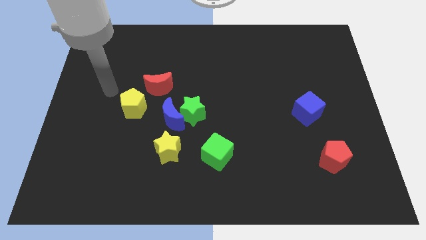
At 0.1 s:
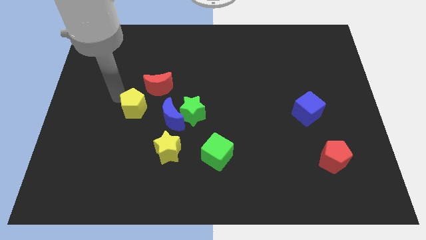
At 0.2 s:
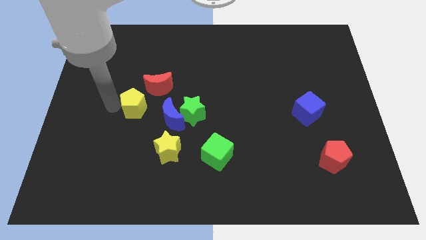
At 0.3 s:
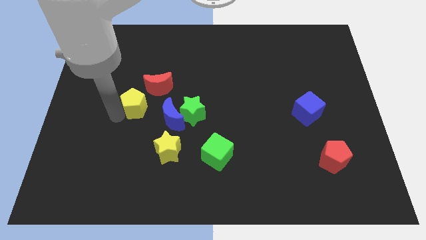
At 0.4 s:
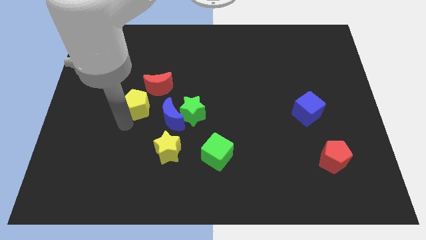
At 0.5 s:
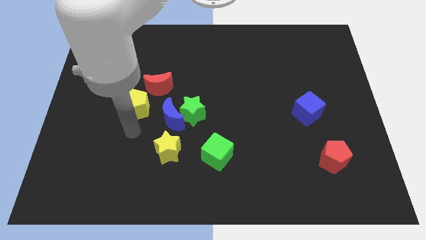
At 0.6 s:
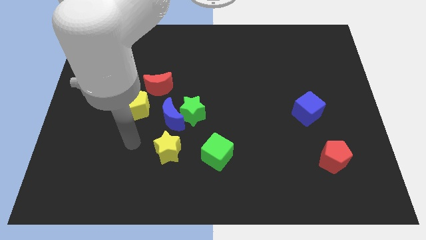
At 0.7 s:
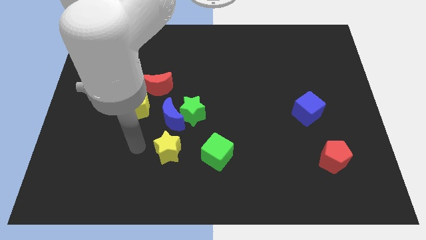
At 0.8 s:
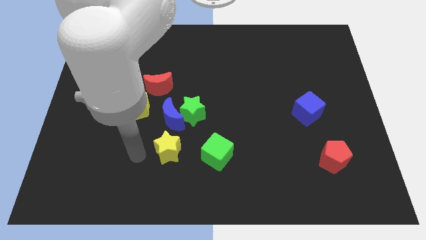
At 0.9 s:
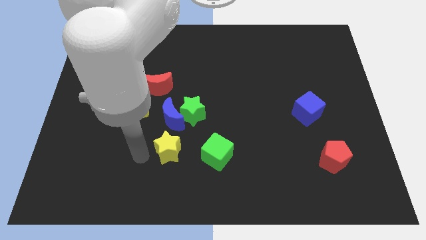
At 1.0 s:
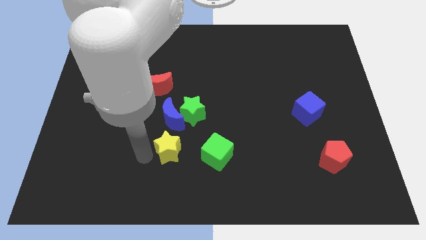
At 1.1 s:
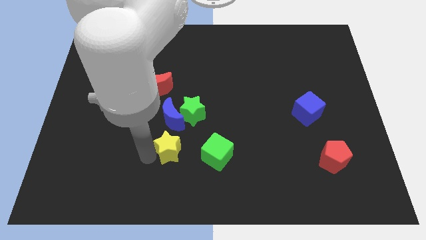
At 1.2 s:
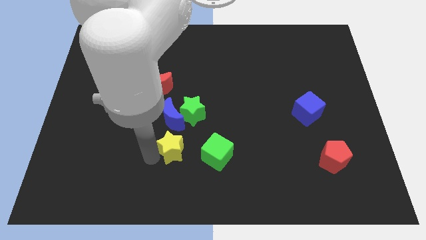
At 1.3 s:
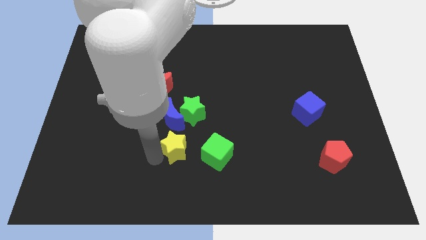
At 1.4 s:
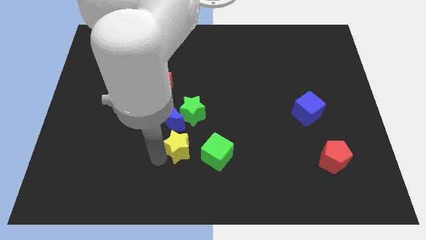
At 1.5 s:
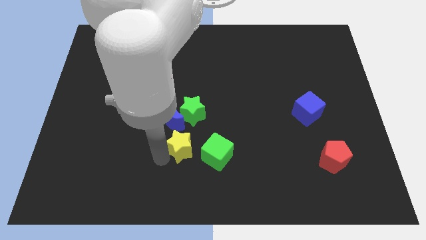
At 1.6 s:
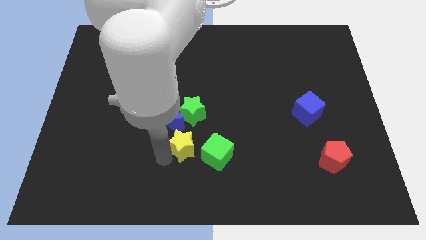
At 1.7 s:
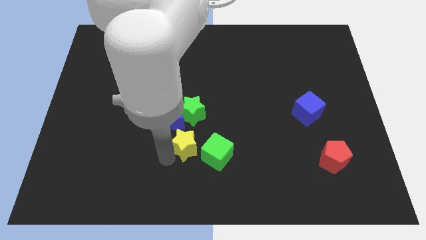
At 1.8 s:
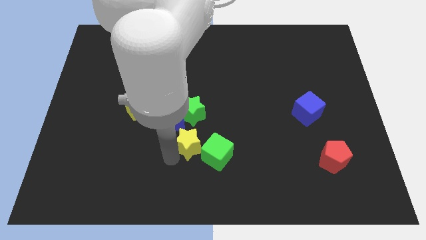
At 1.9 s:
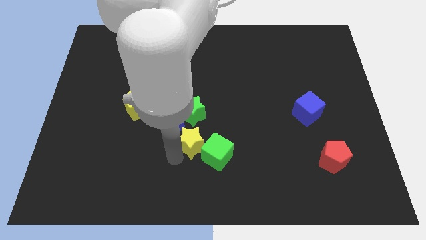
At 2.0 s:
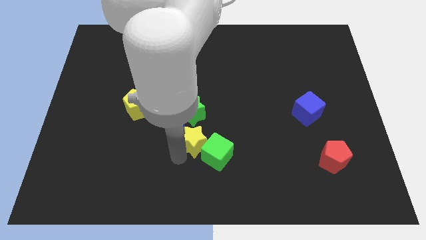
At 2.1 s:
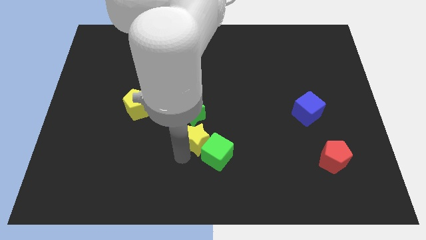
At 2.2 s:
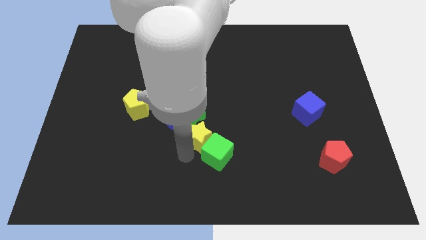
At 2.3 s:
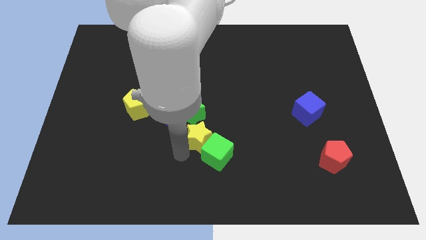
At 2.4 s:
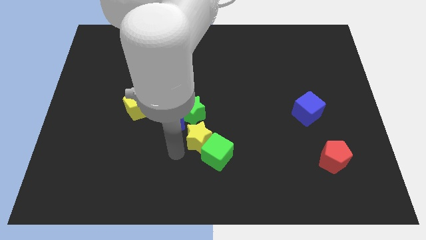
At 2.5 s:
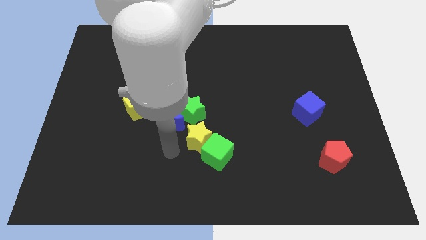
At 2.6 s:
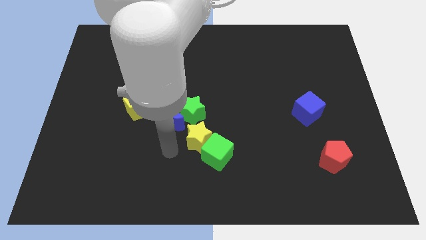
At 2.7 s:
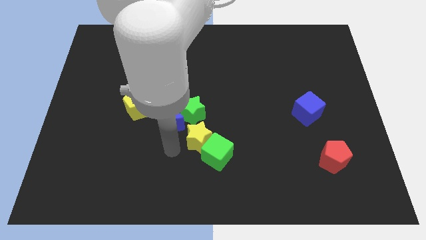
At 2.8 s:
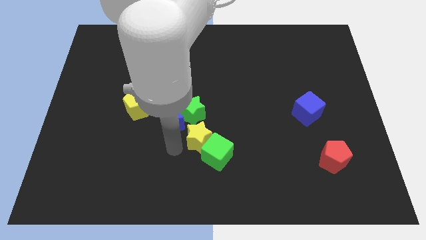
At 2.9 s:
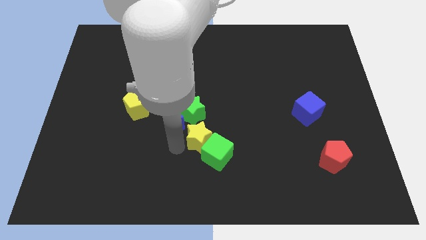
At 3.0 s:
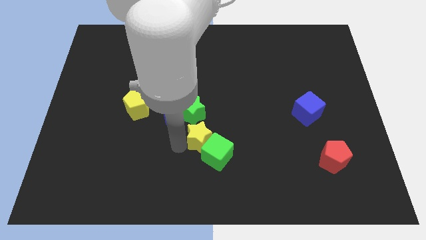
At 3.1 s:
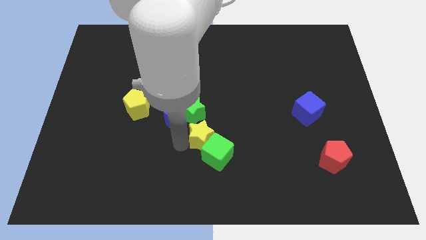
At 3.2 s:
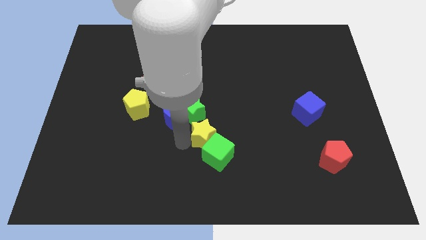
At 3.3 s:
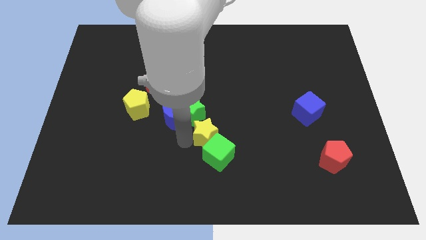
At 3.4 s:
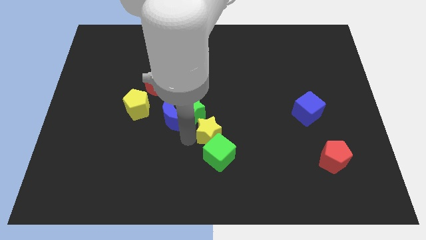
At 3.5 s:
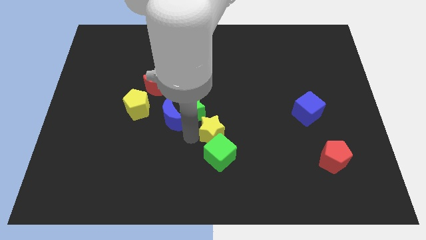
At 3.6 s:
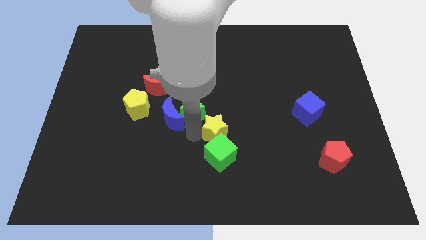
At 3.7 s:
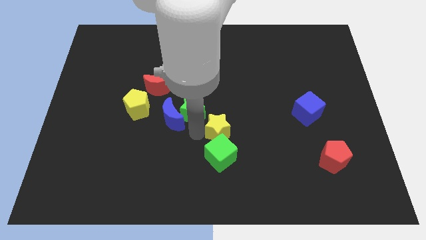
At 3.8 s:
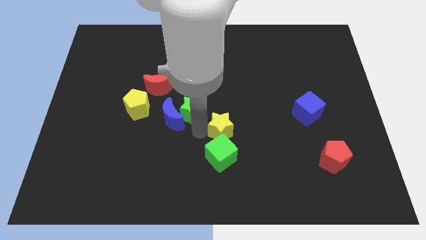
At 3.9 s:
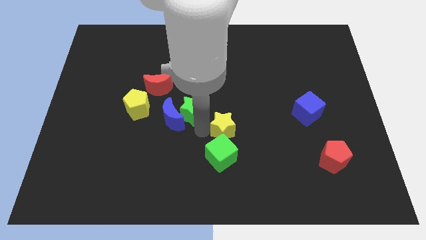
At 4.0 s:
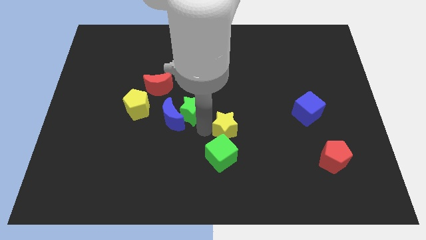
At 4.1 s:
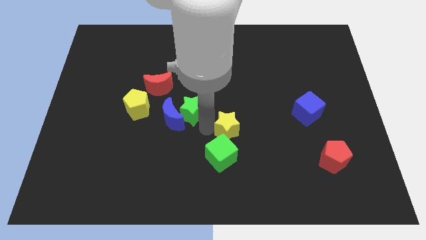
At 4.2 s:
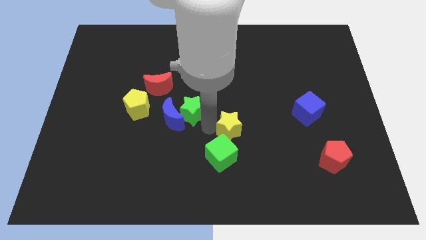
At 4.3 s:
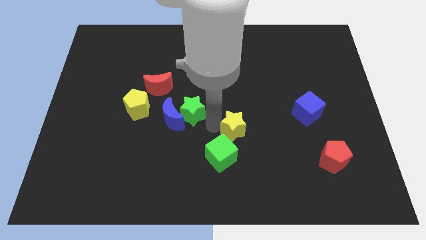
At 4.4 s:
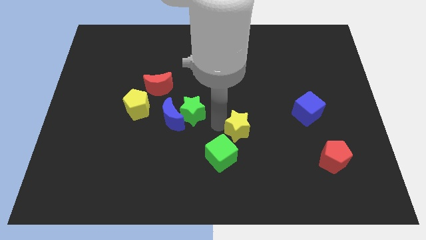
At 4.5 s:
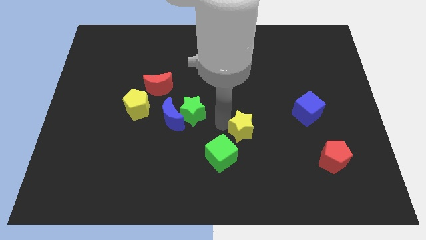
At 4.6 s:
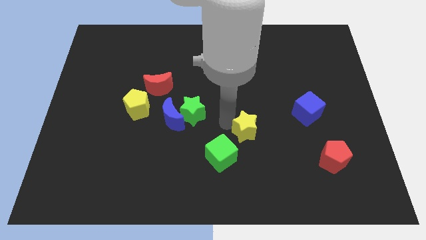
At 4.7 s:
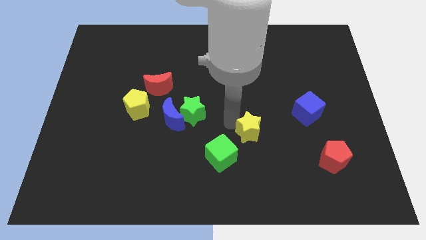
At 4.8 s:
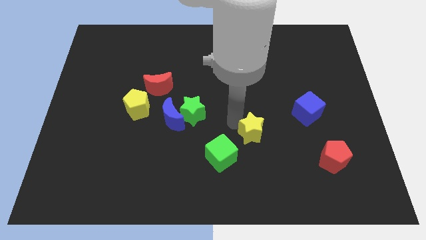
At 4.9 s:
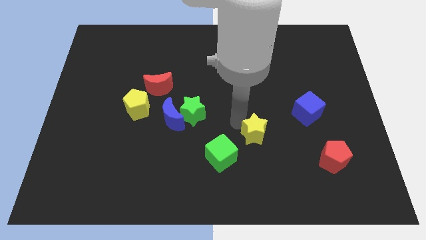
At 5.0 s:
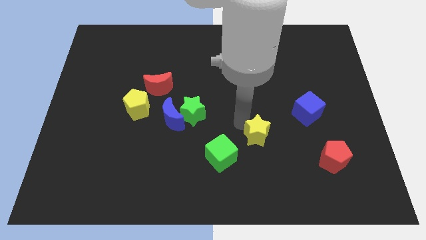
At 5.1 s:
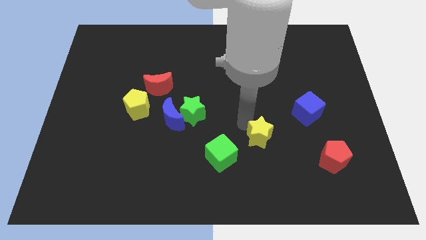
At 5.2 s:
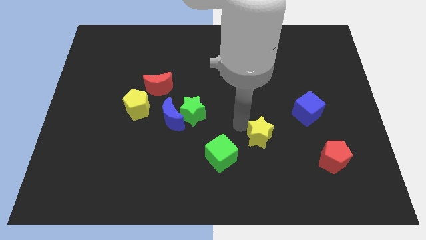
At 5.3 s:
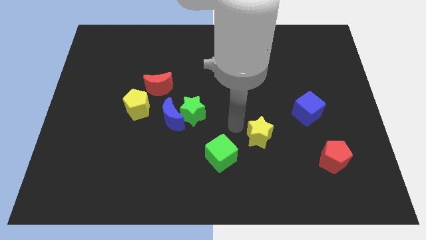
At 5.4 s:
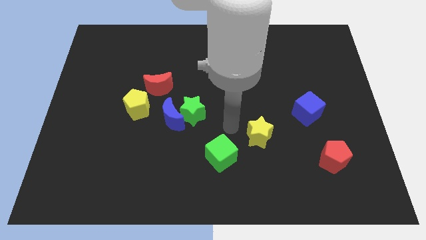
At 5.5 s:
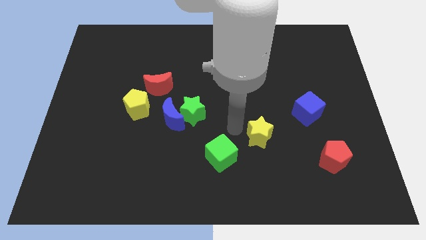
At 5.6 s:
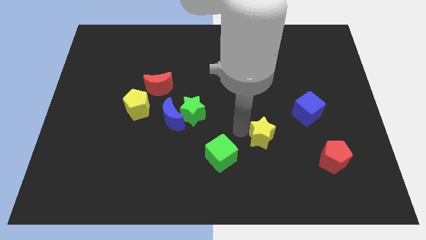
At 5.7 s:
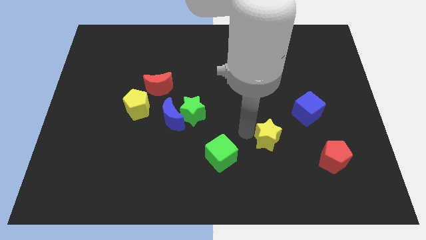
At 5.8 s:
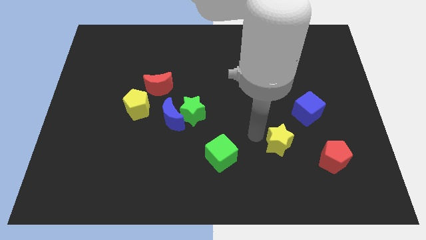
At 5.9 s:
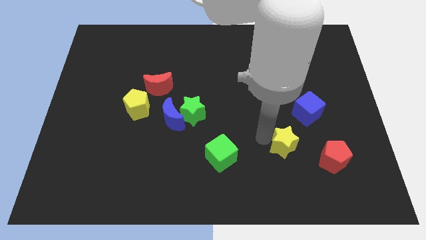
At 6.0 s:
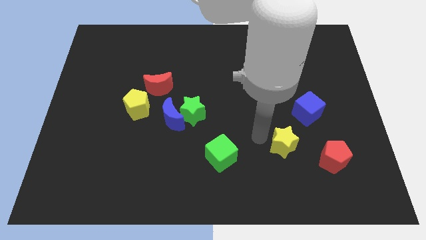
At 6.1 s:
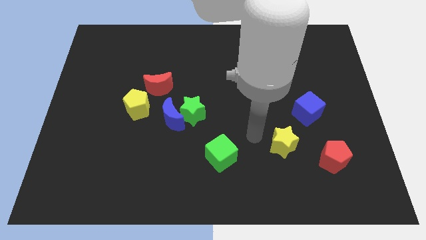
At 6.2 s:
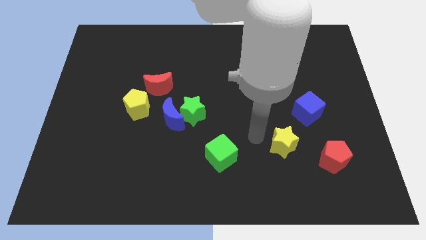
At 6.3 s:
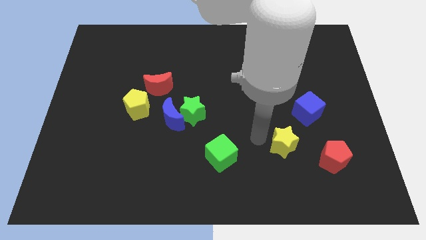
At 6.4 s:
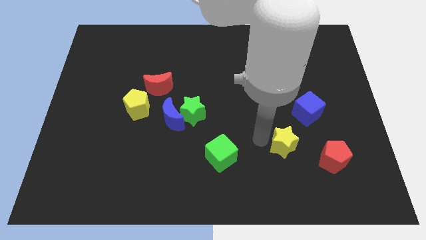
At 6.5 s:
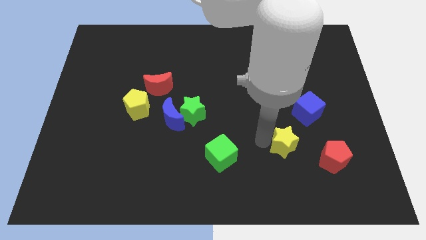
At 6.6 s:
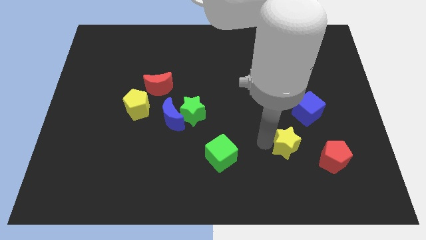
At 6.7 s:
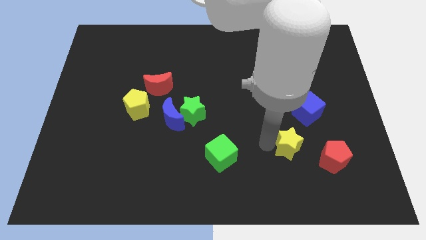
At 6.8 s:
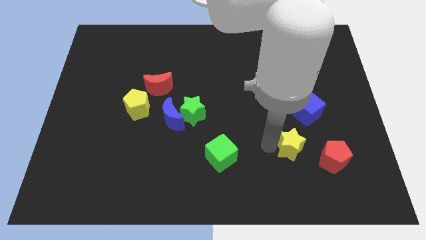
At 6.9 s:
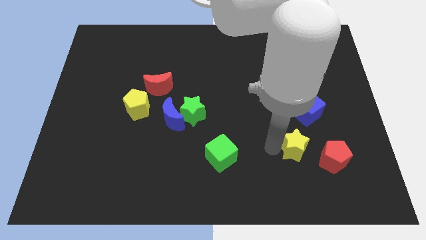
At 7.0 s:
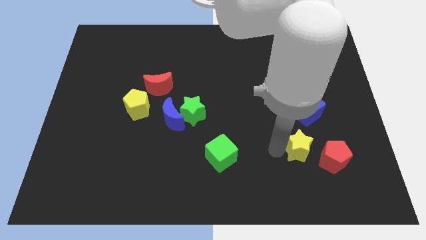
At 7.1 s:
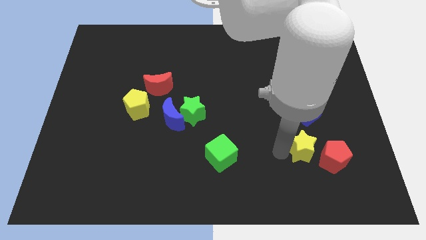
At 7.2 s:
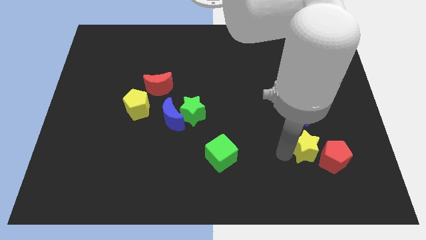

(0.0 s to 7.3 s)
put the yellow star towards the red pentagon

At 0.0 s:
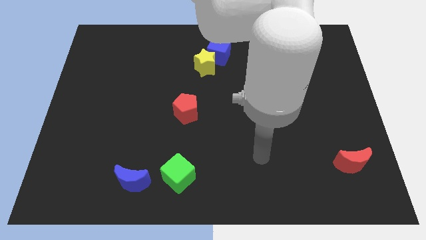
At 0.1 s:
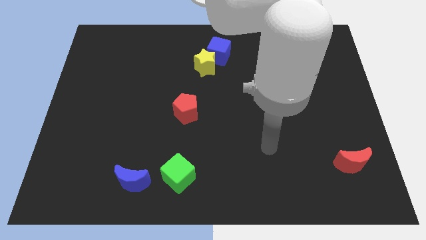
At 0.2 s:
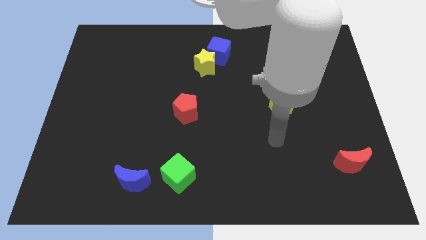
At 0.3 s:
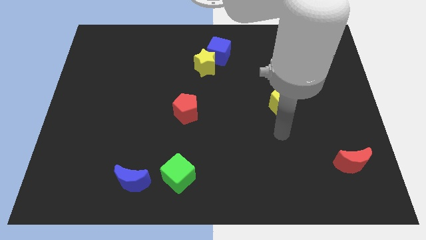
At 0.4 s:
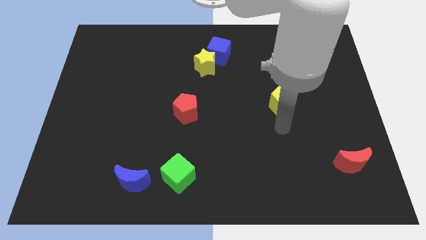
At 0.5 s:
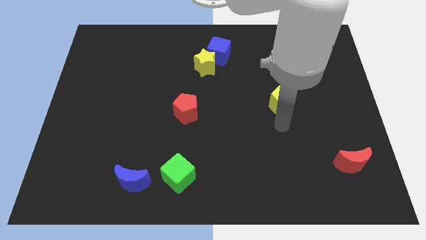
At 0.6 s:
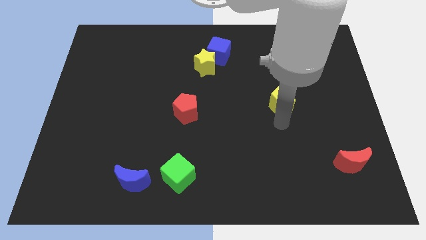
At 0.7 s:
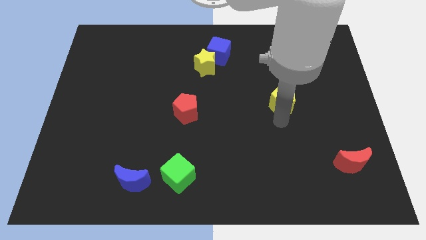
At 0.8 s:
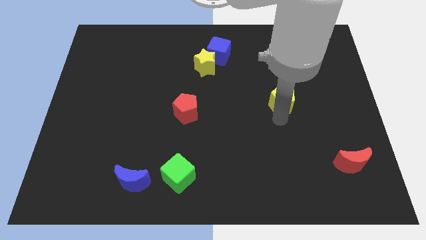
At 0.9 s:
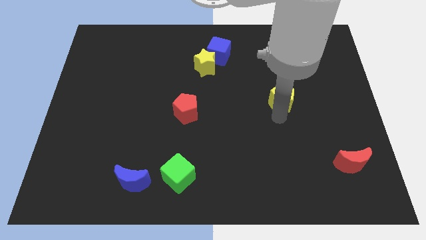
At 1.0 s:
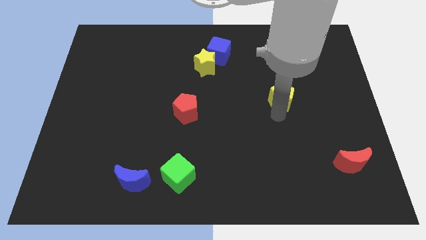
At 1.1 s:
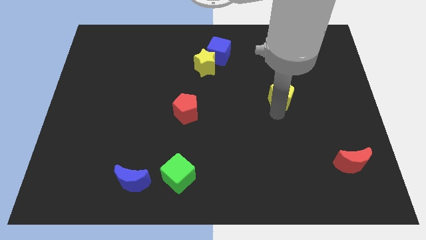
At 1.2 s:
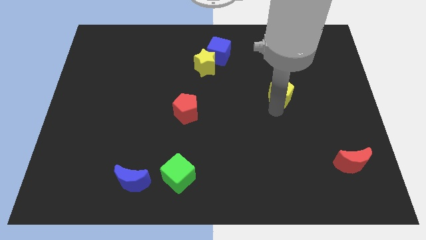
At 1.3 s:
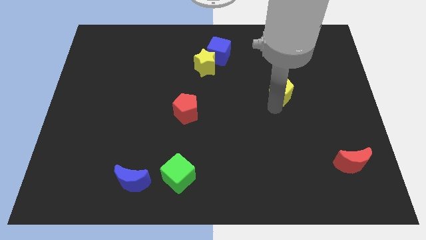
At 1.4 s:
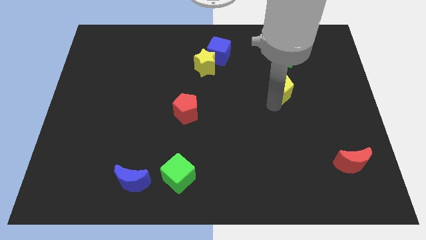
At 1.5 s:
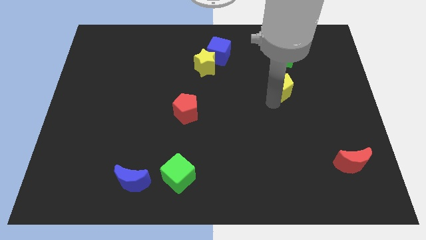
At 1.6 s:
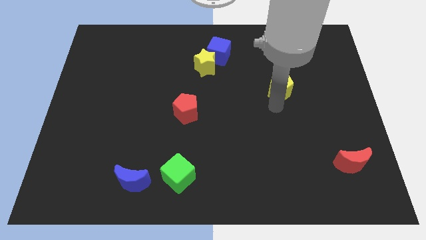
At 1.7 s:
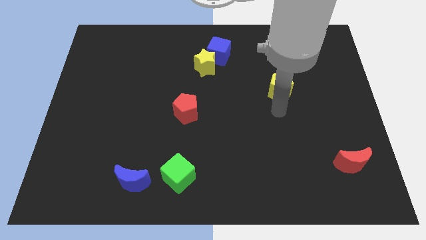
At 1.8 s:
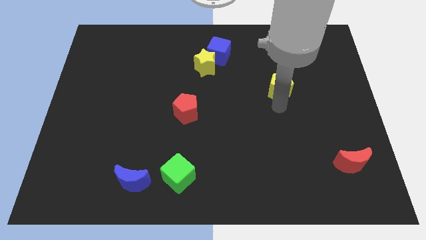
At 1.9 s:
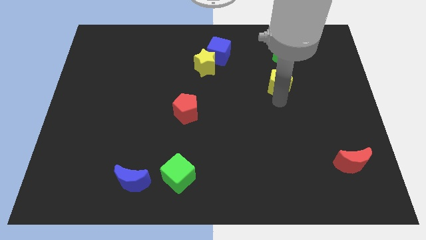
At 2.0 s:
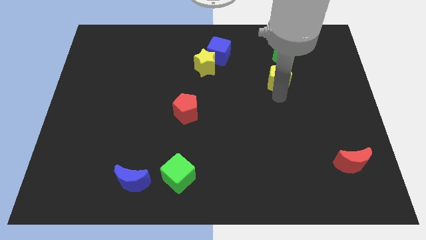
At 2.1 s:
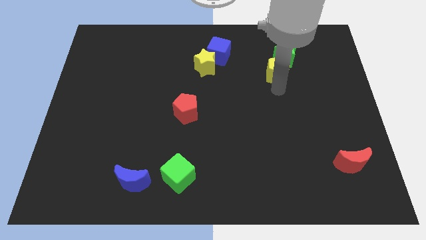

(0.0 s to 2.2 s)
slide the yellow pentagon to the green star
